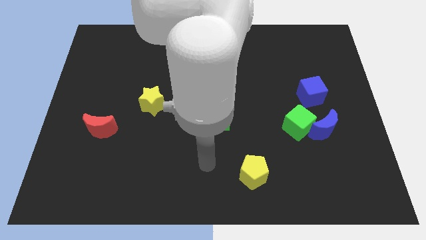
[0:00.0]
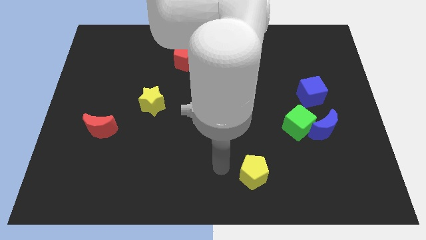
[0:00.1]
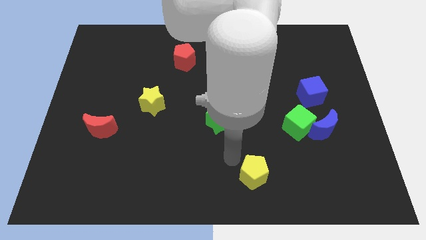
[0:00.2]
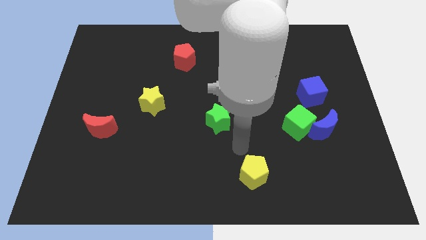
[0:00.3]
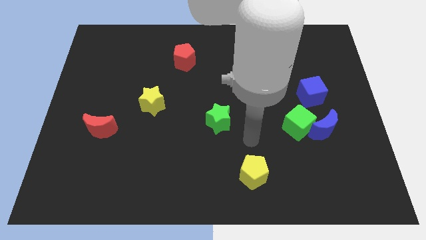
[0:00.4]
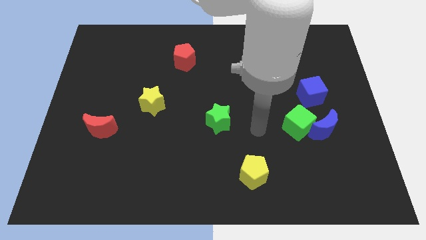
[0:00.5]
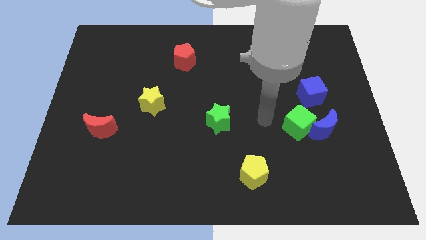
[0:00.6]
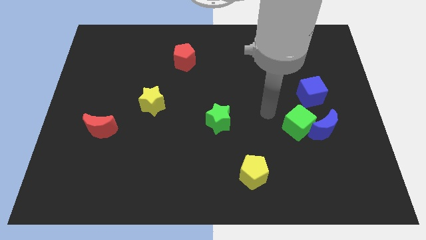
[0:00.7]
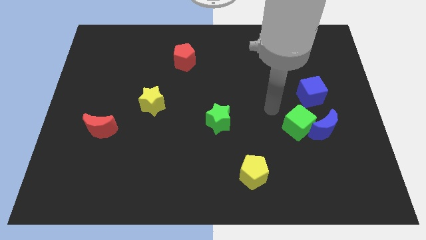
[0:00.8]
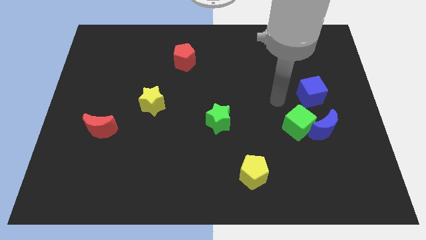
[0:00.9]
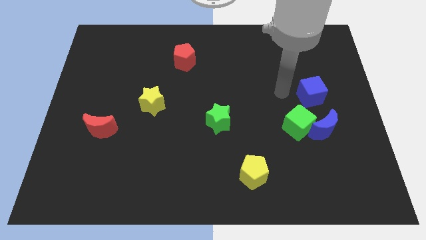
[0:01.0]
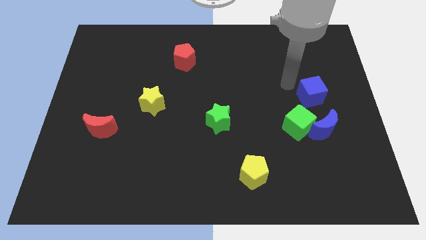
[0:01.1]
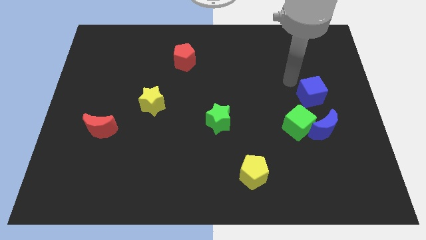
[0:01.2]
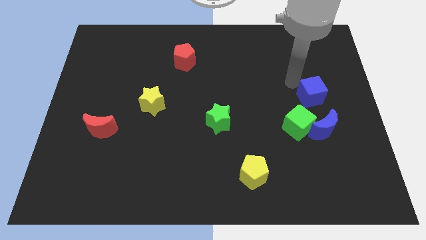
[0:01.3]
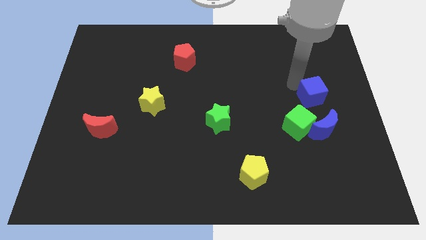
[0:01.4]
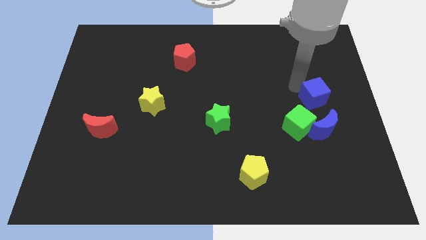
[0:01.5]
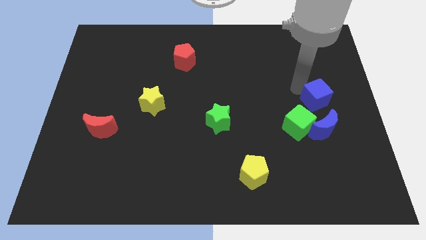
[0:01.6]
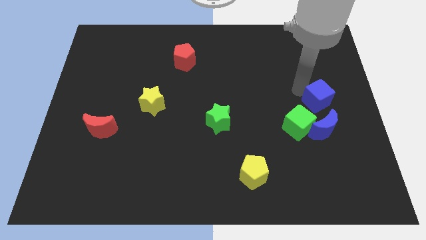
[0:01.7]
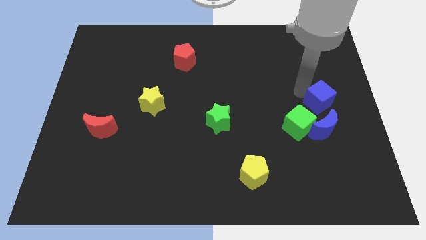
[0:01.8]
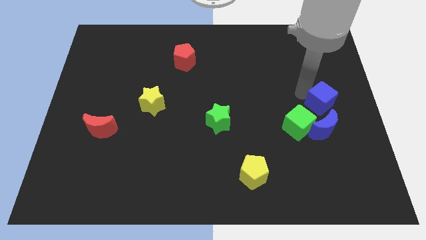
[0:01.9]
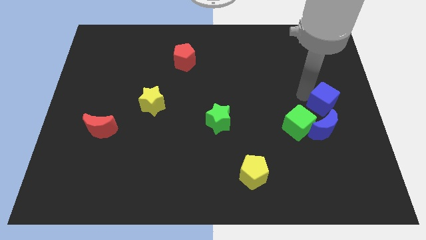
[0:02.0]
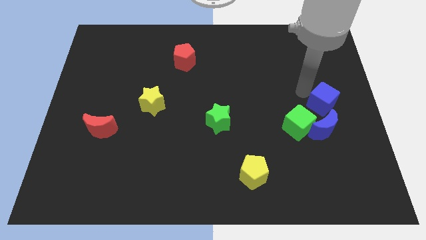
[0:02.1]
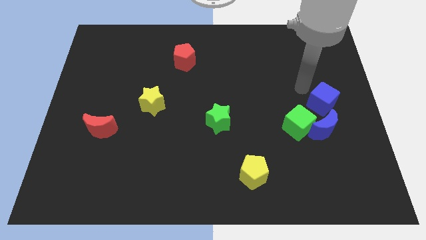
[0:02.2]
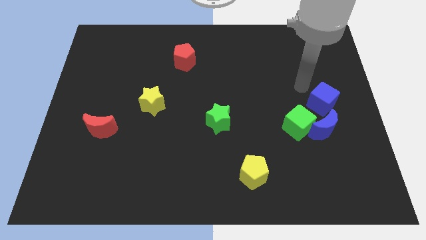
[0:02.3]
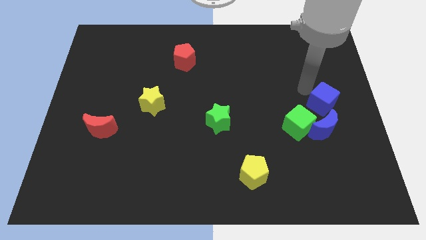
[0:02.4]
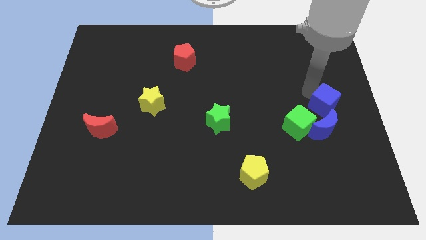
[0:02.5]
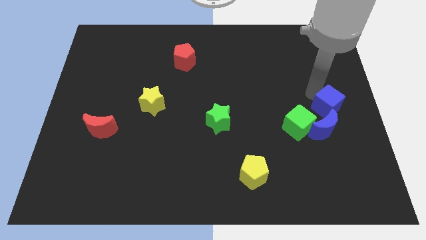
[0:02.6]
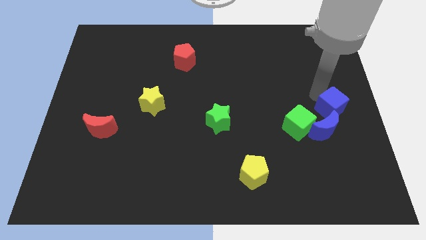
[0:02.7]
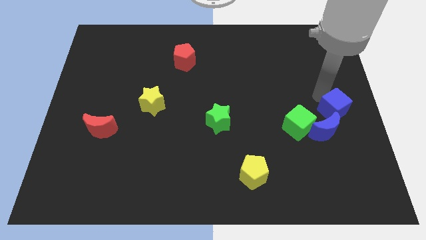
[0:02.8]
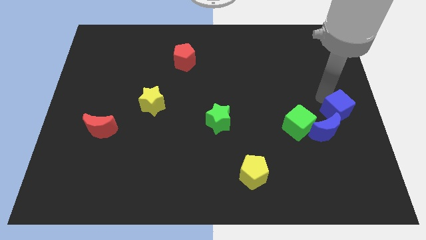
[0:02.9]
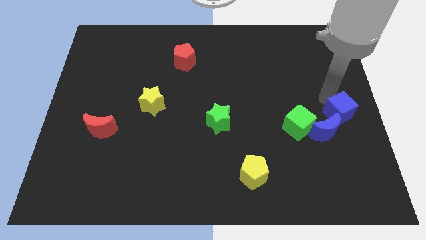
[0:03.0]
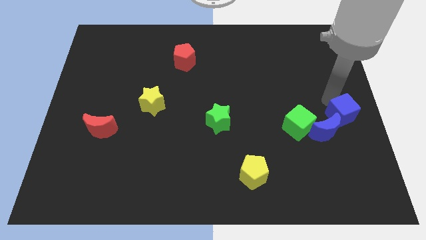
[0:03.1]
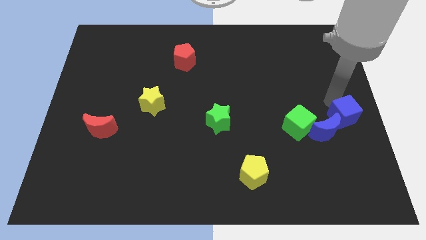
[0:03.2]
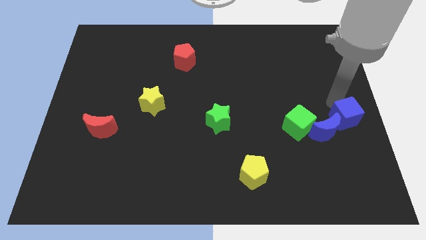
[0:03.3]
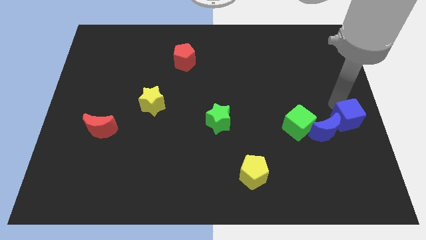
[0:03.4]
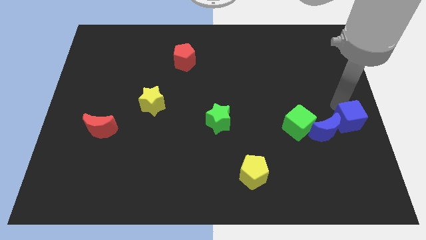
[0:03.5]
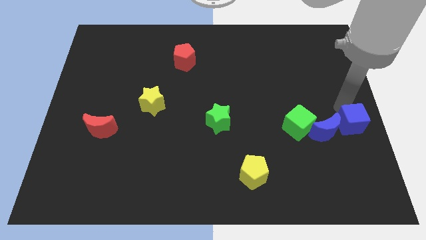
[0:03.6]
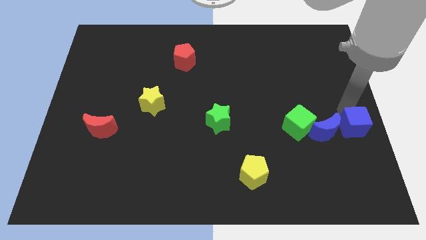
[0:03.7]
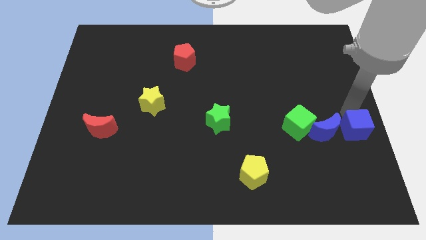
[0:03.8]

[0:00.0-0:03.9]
push the blue cube down slightly

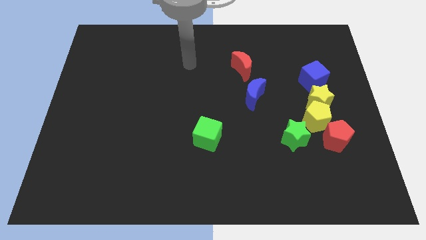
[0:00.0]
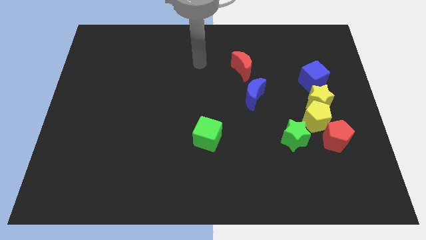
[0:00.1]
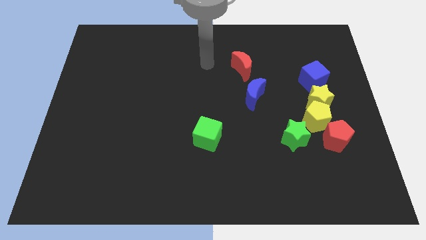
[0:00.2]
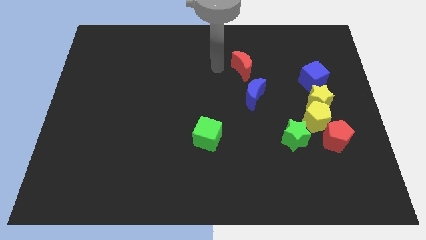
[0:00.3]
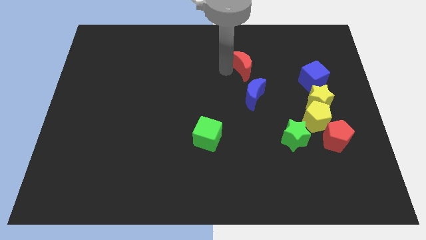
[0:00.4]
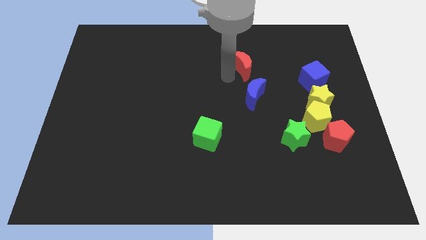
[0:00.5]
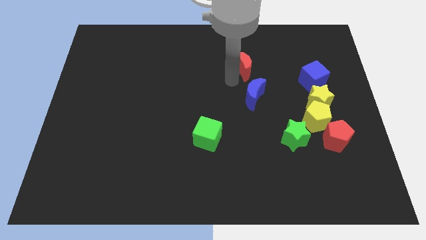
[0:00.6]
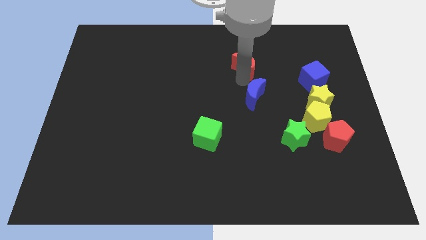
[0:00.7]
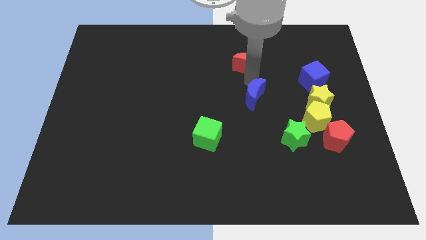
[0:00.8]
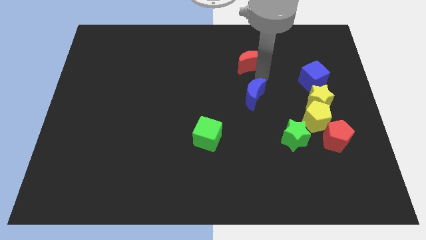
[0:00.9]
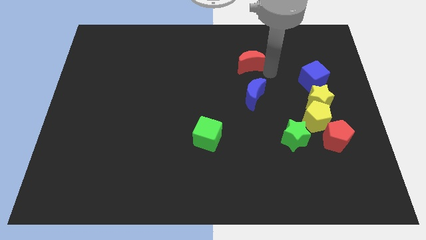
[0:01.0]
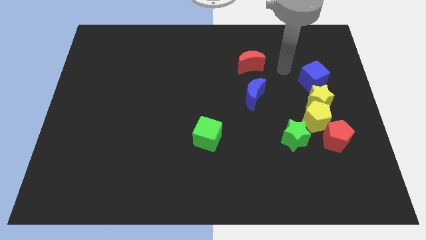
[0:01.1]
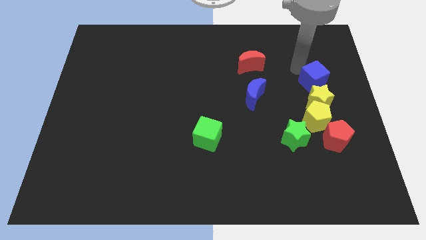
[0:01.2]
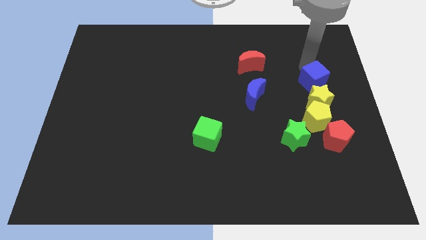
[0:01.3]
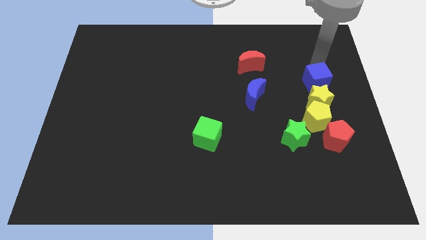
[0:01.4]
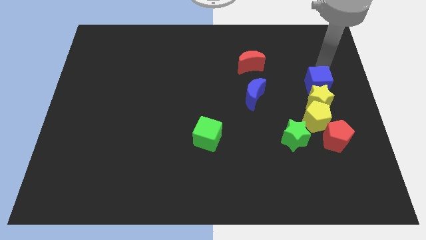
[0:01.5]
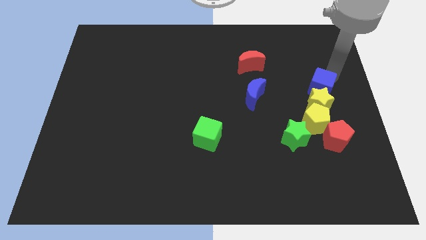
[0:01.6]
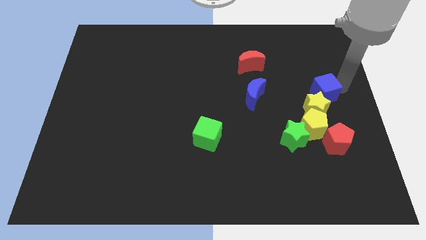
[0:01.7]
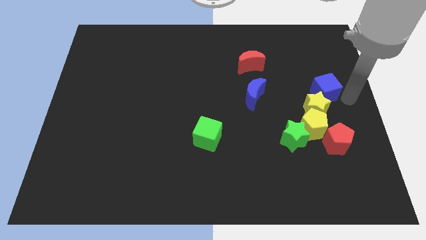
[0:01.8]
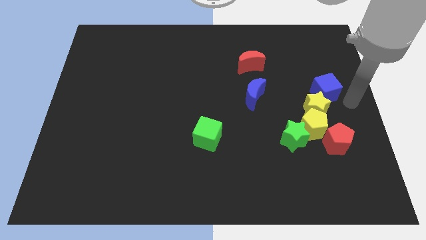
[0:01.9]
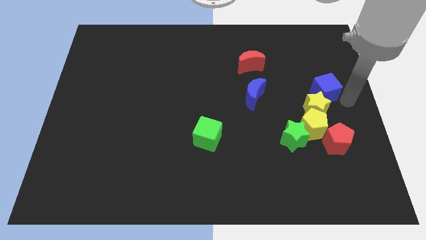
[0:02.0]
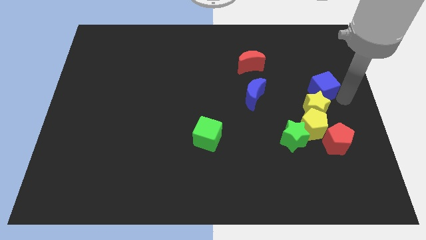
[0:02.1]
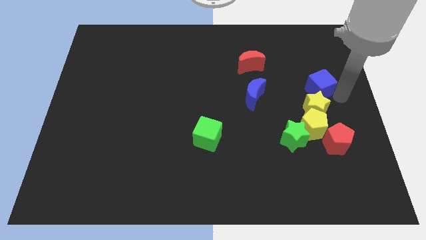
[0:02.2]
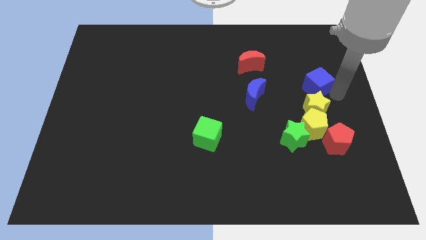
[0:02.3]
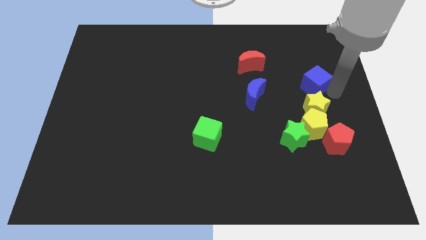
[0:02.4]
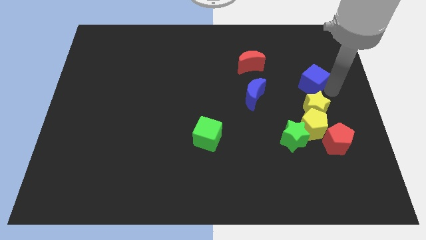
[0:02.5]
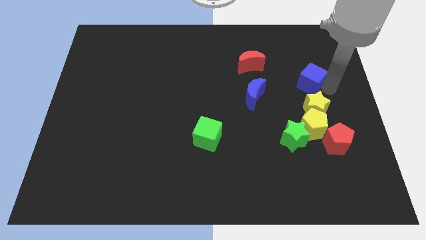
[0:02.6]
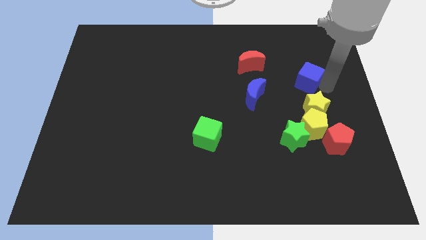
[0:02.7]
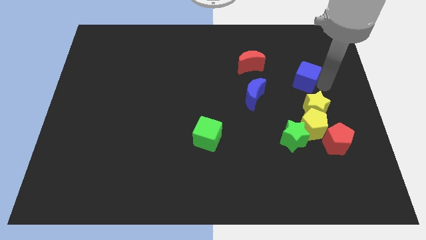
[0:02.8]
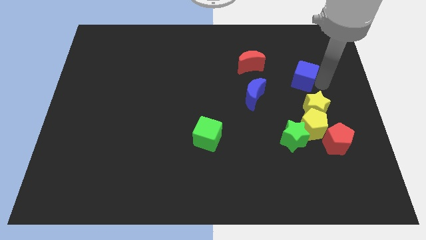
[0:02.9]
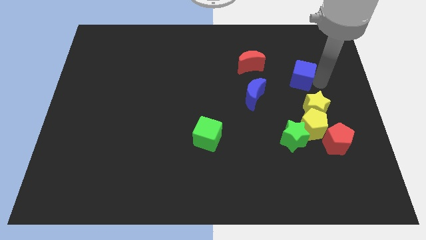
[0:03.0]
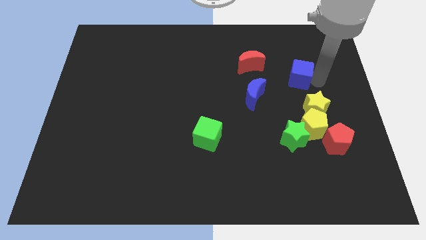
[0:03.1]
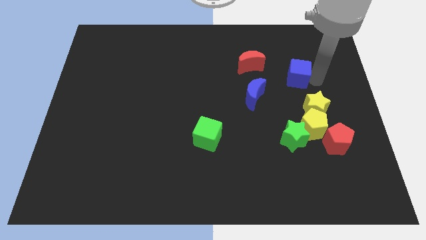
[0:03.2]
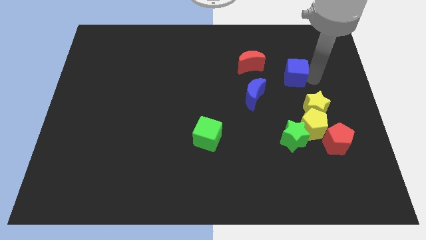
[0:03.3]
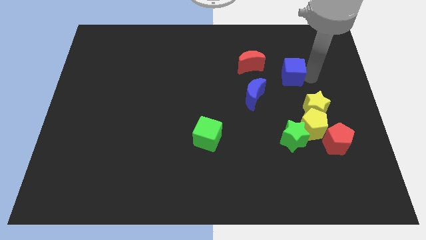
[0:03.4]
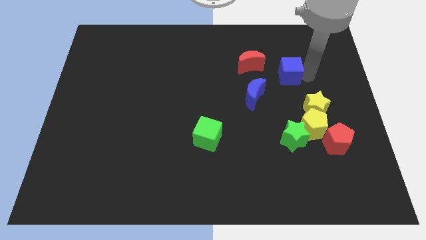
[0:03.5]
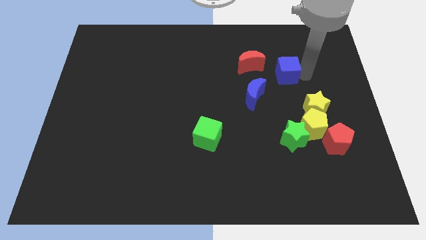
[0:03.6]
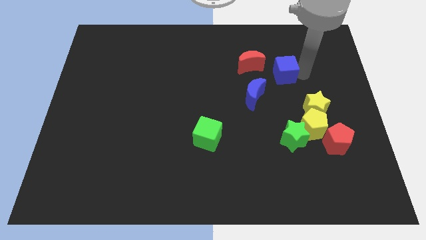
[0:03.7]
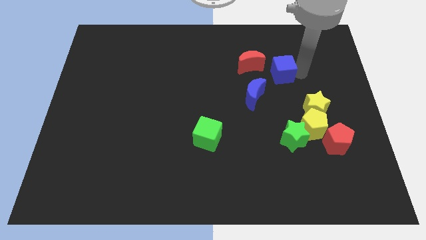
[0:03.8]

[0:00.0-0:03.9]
push the blue cube to the left a little

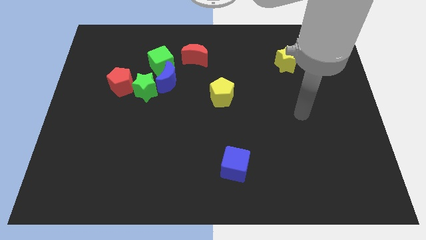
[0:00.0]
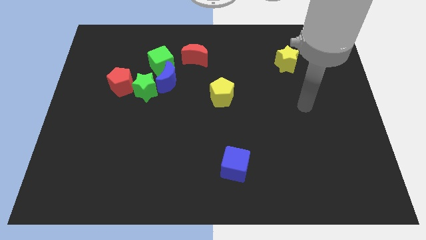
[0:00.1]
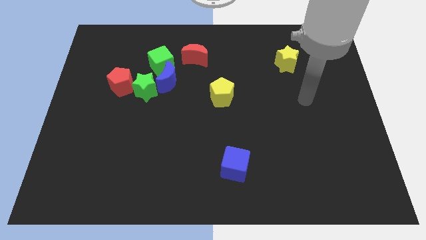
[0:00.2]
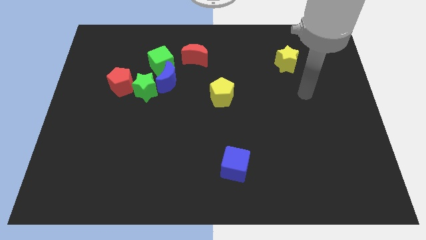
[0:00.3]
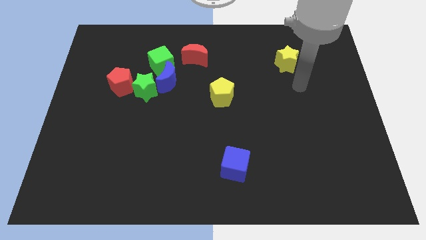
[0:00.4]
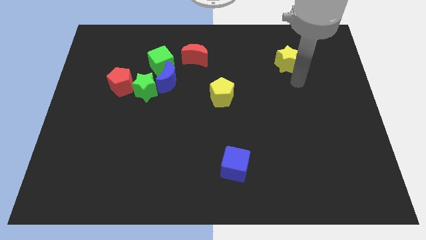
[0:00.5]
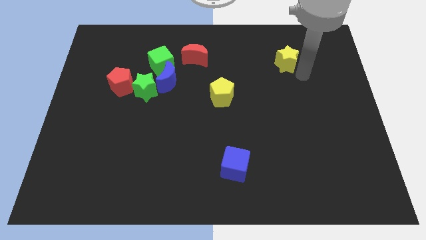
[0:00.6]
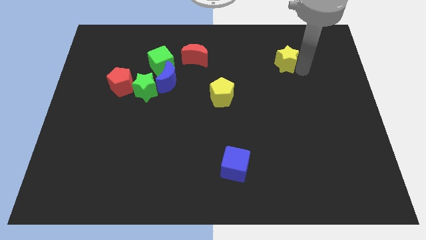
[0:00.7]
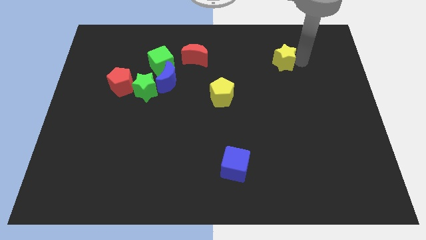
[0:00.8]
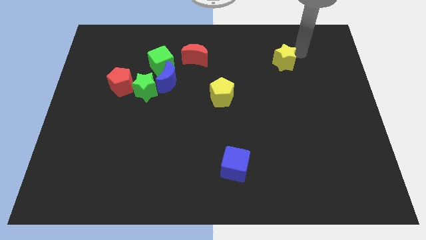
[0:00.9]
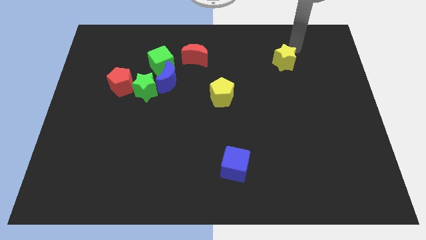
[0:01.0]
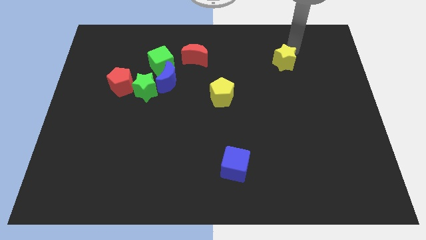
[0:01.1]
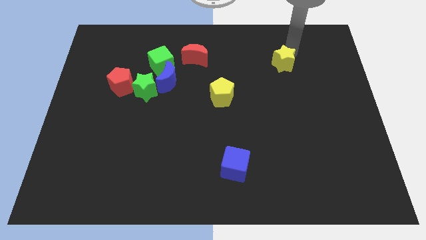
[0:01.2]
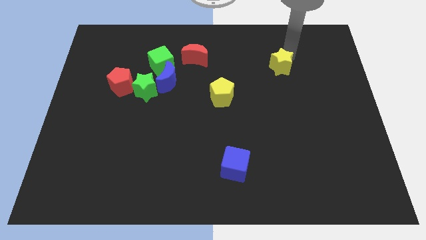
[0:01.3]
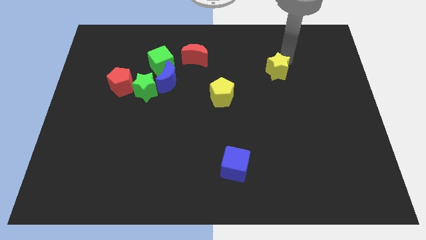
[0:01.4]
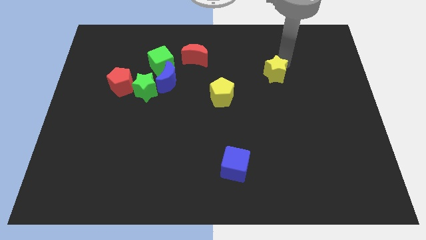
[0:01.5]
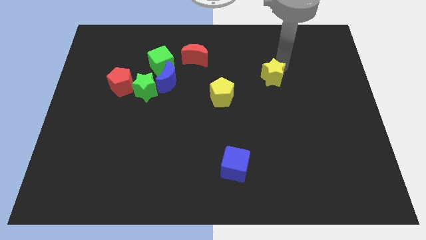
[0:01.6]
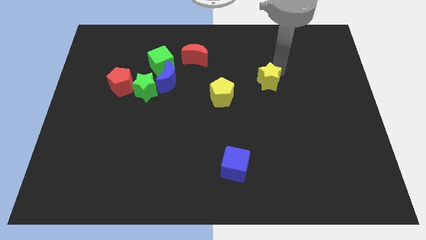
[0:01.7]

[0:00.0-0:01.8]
move the yellow star downwards and left a little
